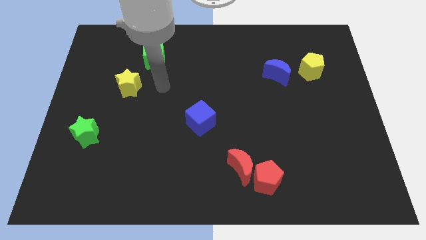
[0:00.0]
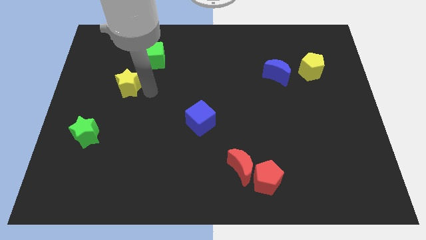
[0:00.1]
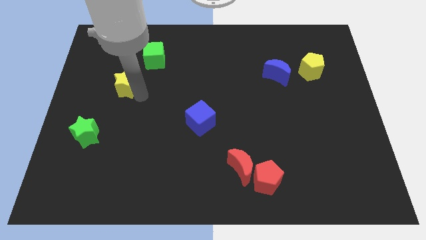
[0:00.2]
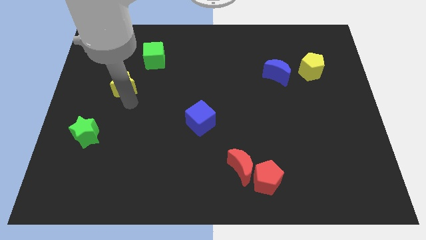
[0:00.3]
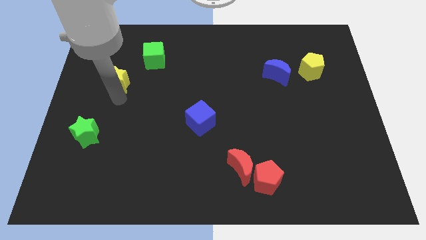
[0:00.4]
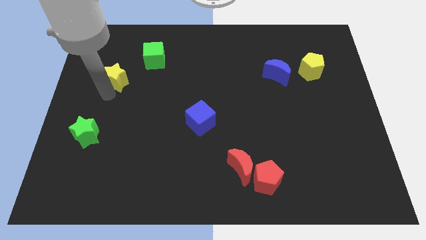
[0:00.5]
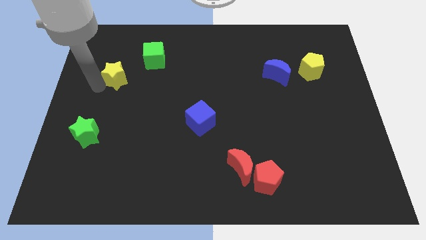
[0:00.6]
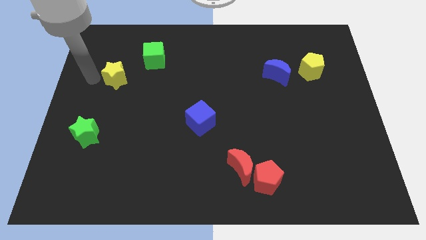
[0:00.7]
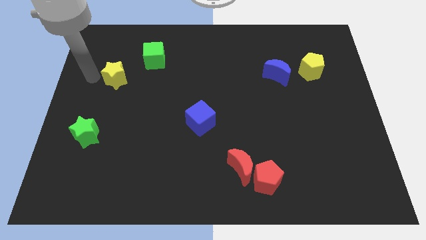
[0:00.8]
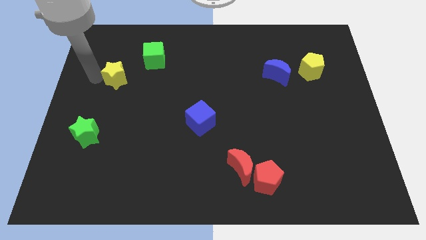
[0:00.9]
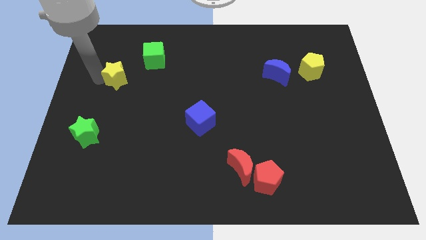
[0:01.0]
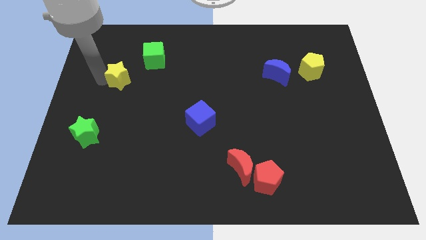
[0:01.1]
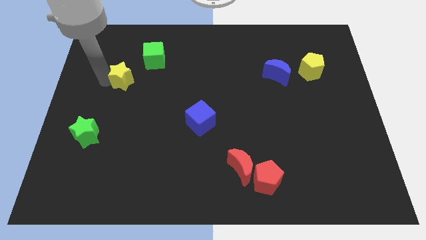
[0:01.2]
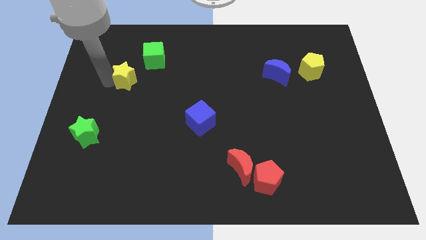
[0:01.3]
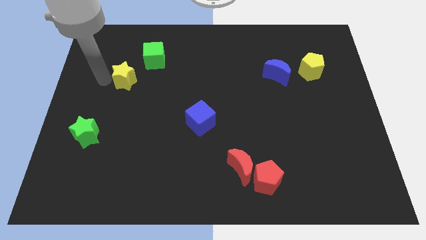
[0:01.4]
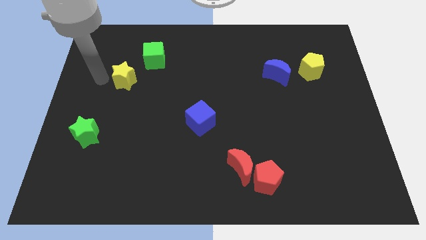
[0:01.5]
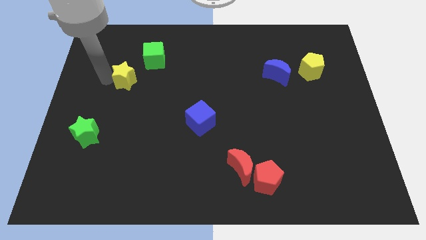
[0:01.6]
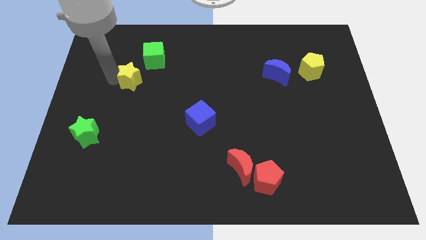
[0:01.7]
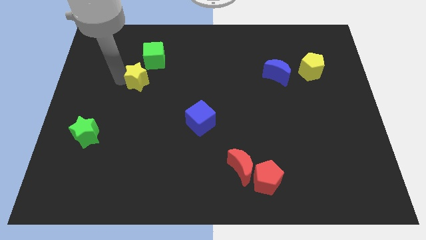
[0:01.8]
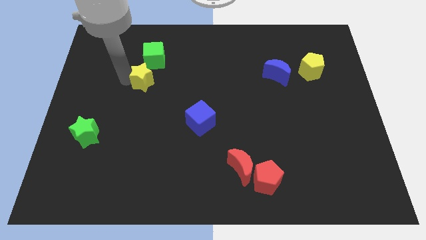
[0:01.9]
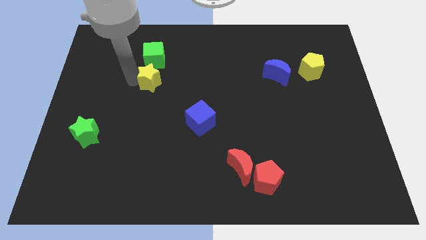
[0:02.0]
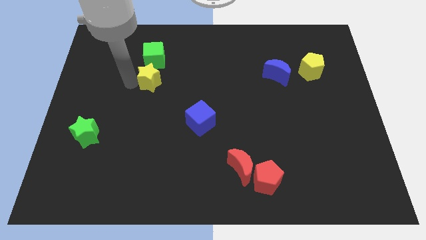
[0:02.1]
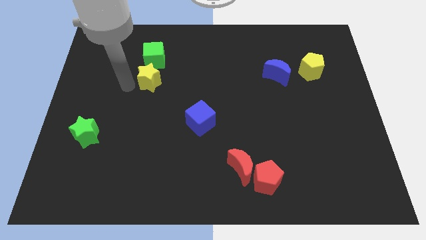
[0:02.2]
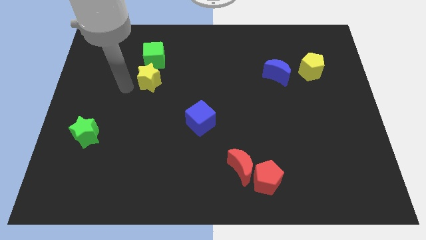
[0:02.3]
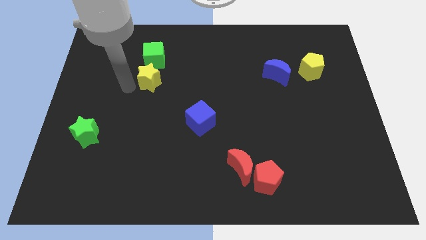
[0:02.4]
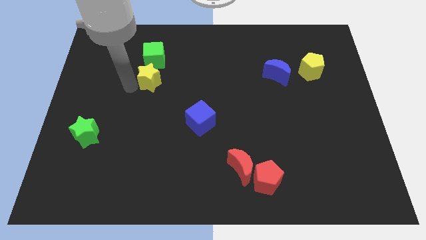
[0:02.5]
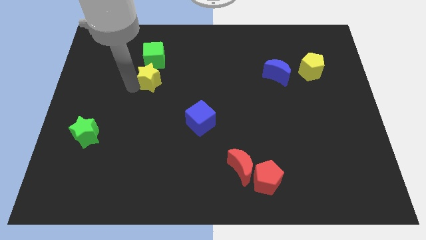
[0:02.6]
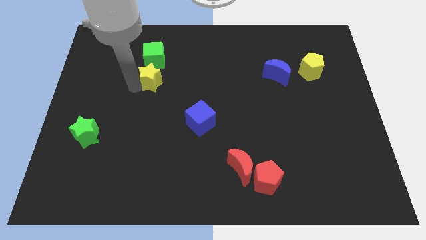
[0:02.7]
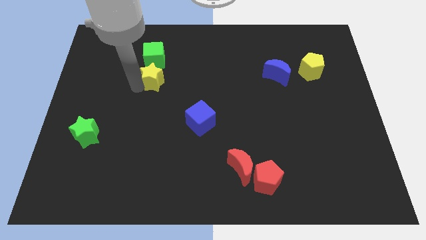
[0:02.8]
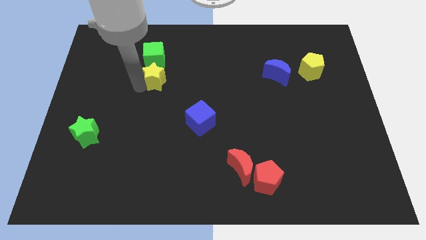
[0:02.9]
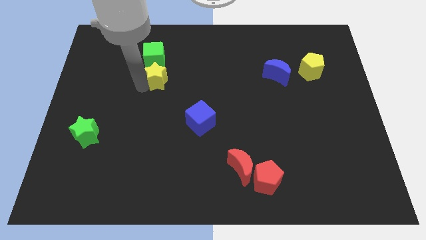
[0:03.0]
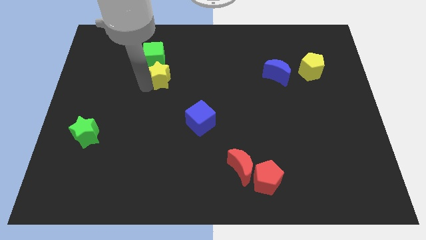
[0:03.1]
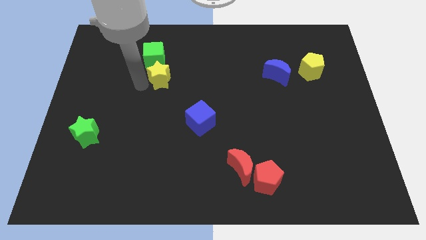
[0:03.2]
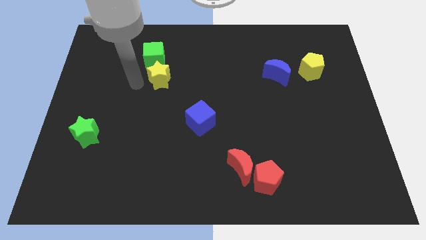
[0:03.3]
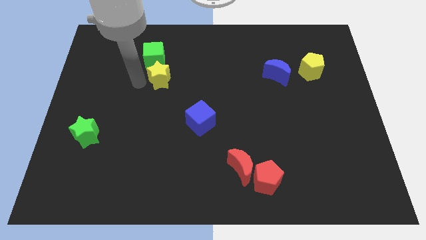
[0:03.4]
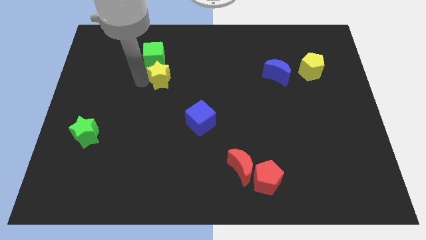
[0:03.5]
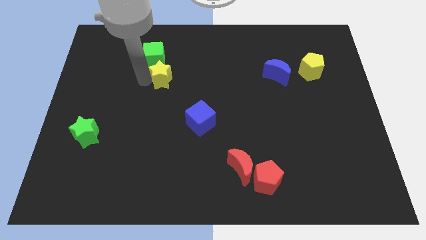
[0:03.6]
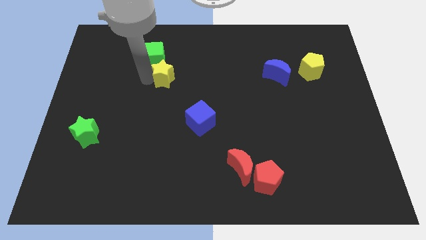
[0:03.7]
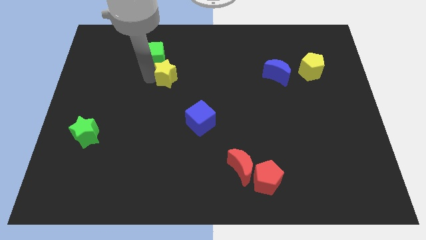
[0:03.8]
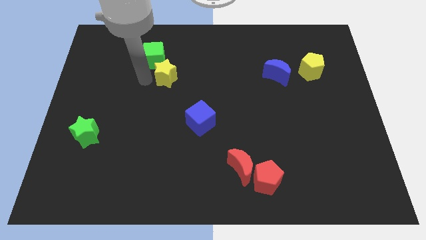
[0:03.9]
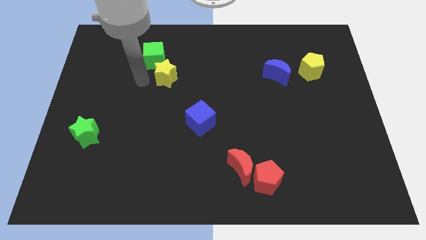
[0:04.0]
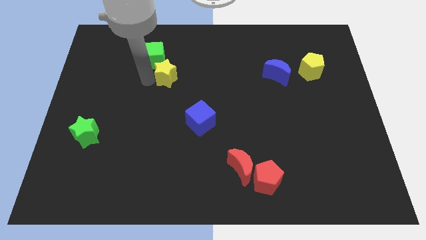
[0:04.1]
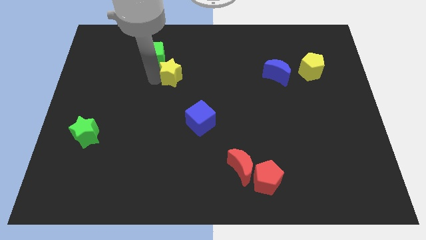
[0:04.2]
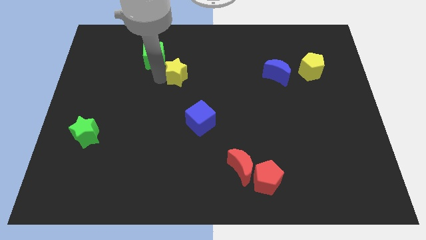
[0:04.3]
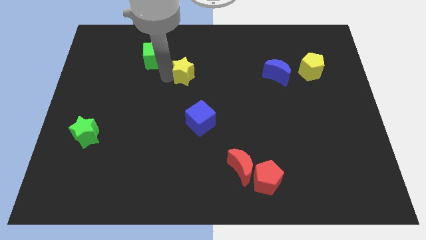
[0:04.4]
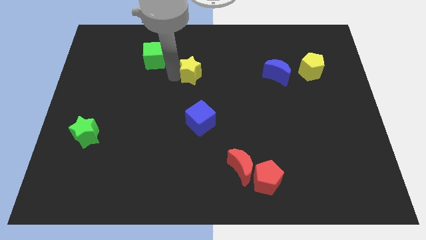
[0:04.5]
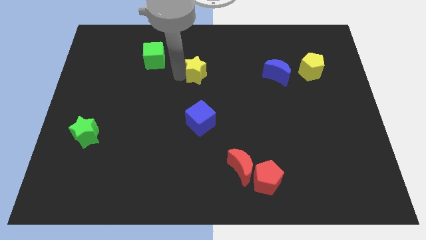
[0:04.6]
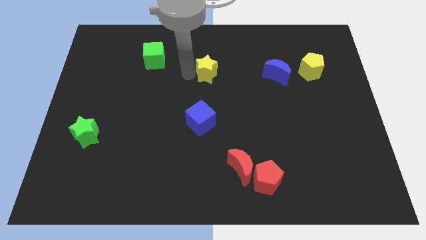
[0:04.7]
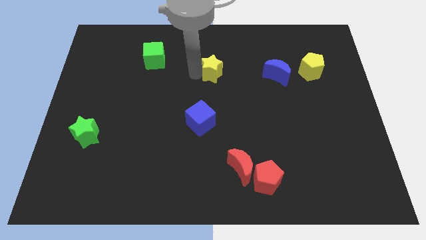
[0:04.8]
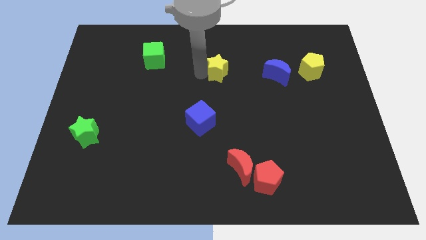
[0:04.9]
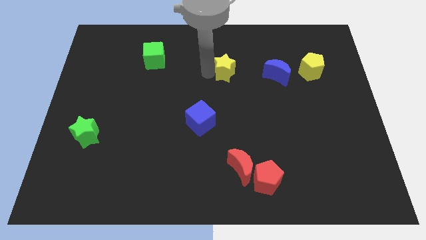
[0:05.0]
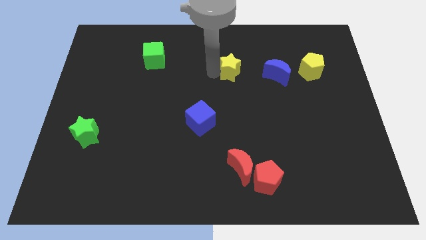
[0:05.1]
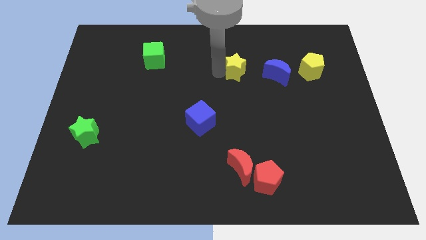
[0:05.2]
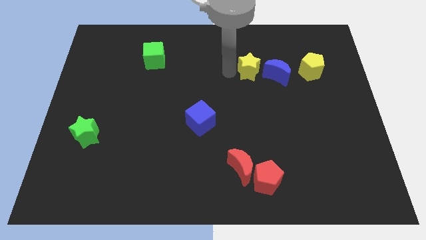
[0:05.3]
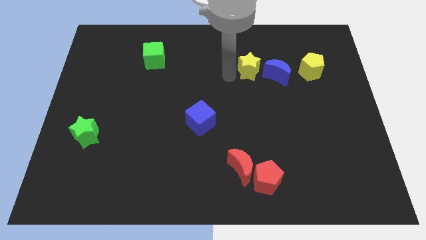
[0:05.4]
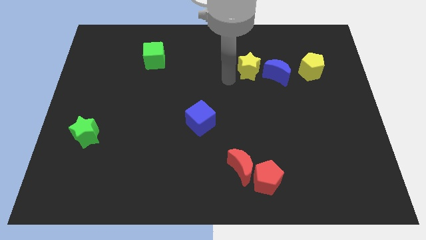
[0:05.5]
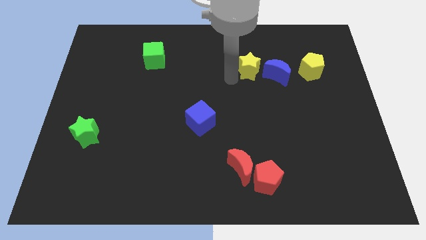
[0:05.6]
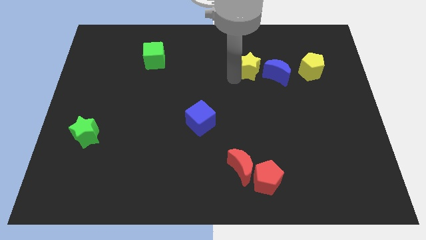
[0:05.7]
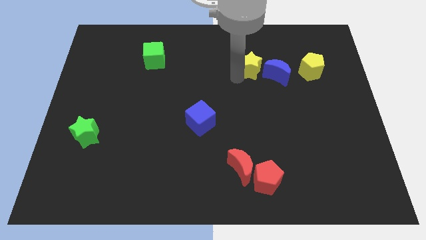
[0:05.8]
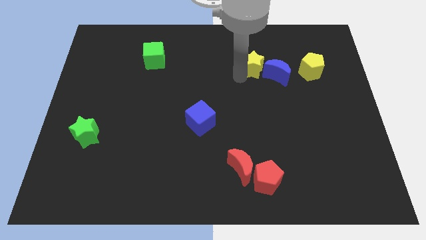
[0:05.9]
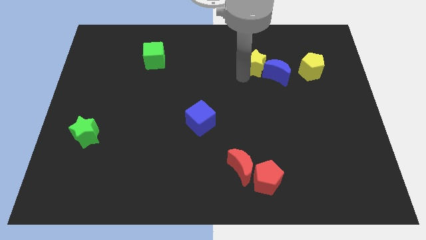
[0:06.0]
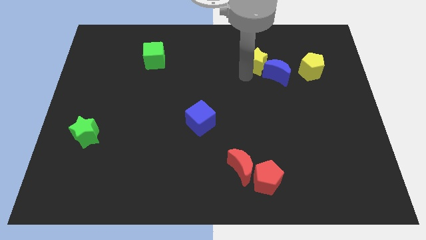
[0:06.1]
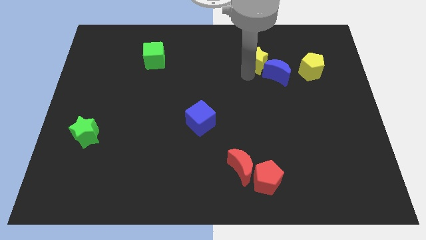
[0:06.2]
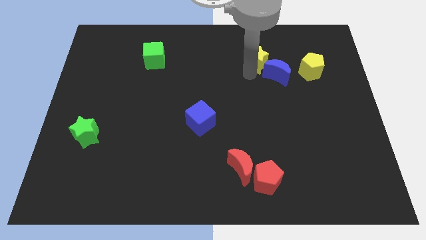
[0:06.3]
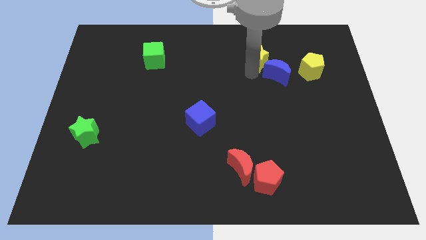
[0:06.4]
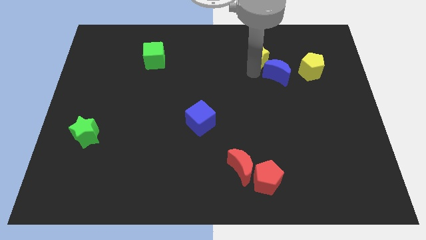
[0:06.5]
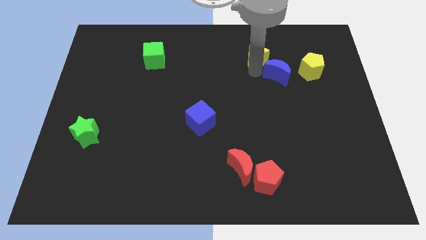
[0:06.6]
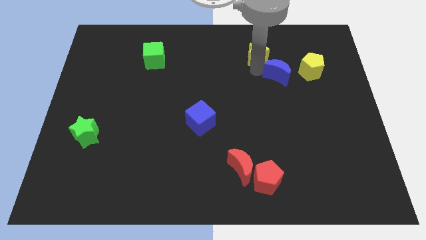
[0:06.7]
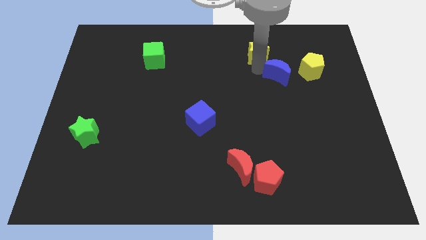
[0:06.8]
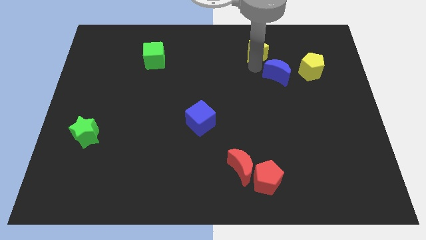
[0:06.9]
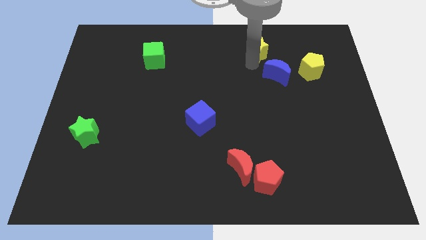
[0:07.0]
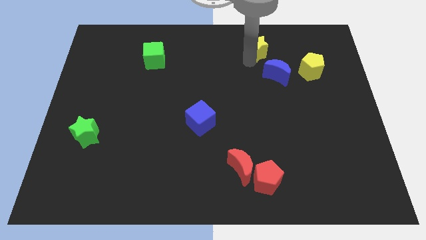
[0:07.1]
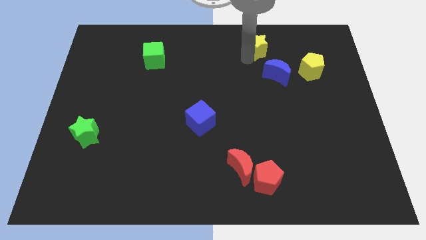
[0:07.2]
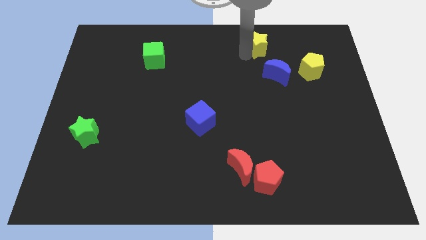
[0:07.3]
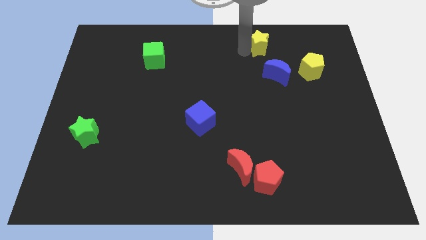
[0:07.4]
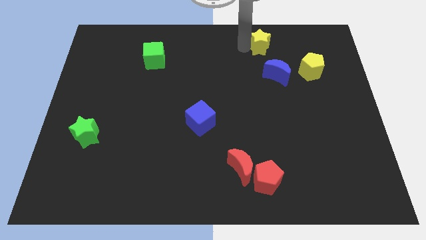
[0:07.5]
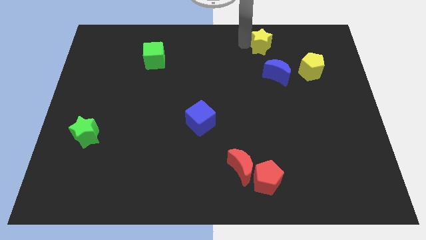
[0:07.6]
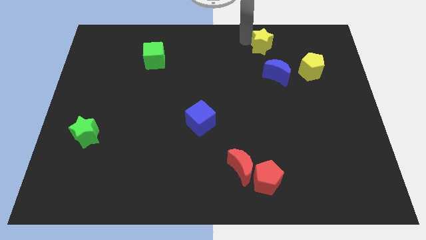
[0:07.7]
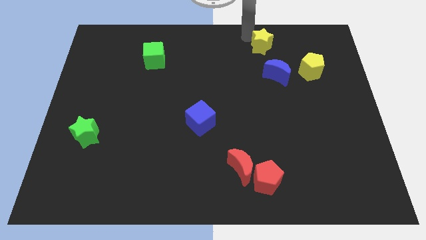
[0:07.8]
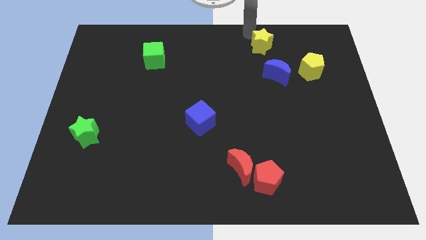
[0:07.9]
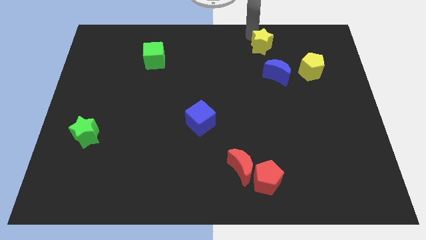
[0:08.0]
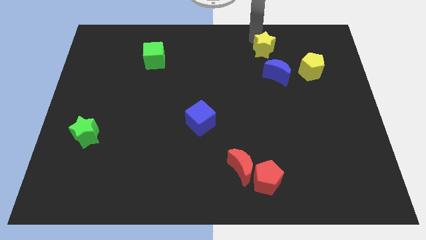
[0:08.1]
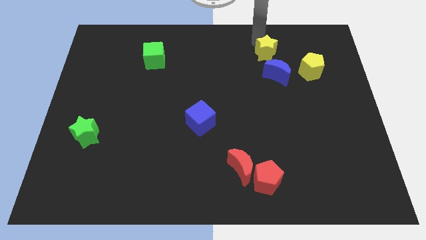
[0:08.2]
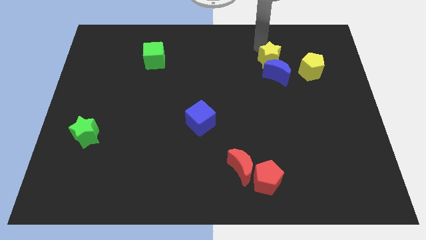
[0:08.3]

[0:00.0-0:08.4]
move the yellow star to the top right side of the blue moon
